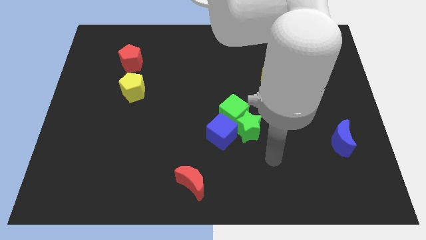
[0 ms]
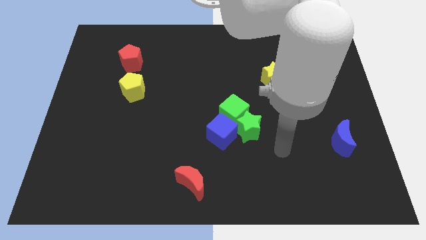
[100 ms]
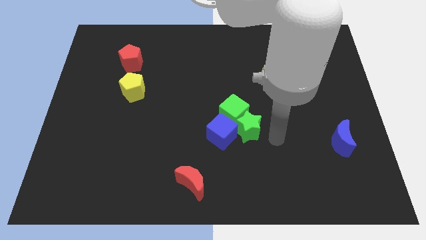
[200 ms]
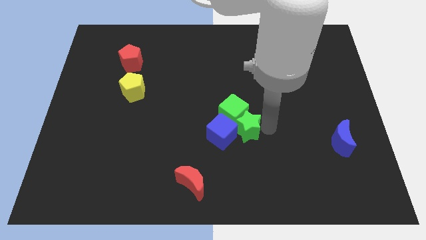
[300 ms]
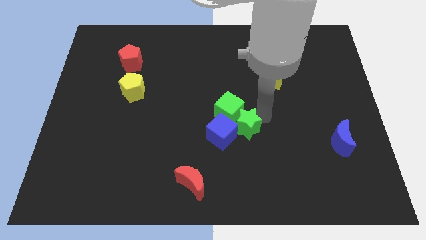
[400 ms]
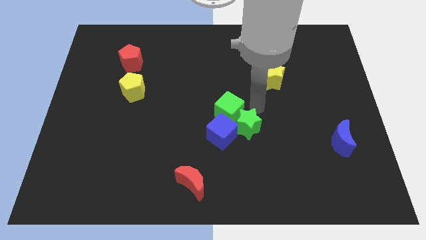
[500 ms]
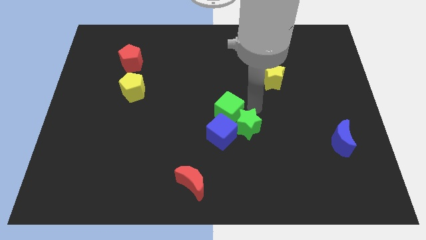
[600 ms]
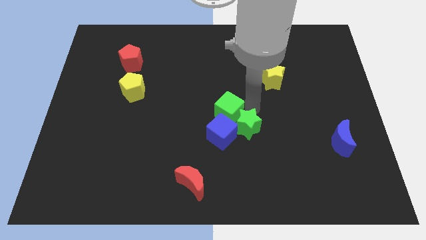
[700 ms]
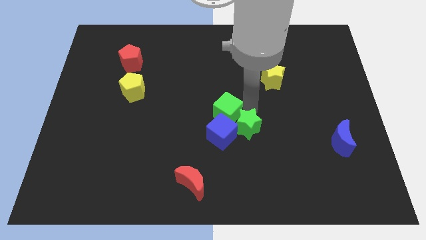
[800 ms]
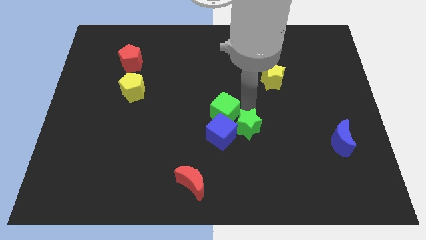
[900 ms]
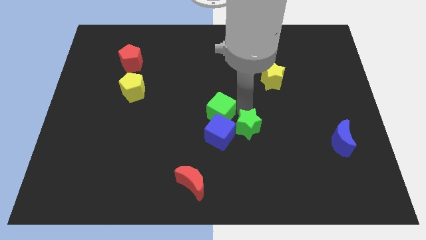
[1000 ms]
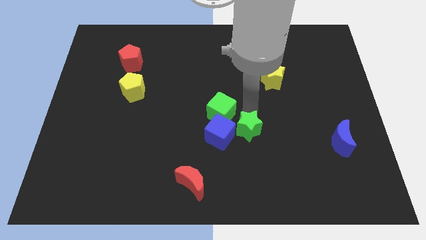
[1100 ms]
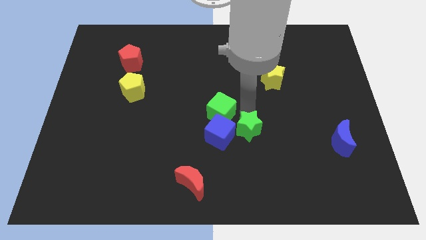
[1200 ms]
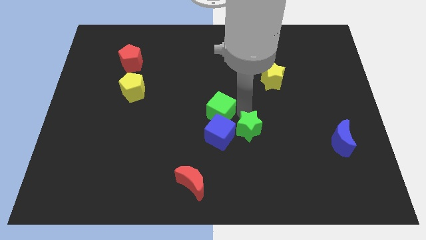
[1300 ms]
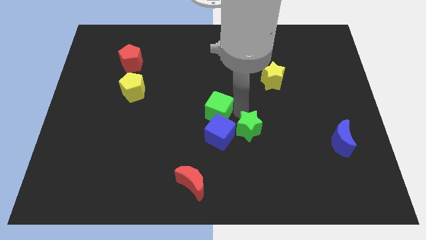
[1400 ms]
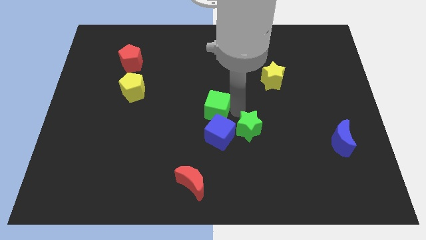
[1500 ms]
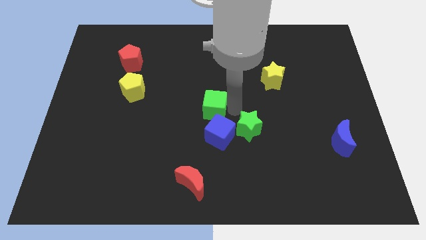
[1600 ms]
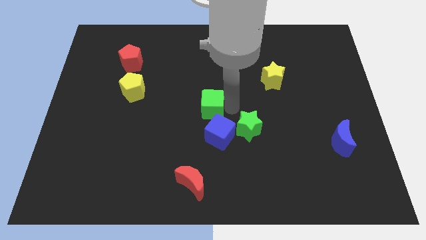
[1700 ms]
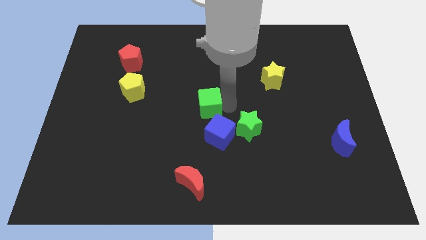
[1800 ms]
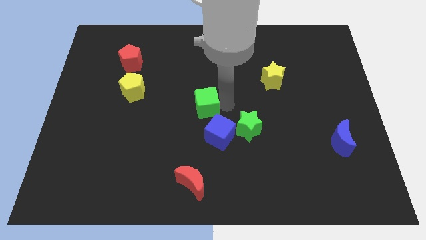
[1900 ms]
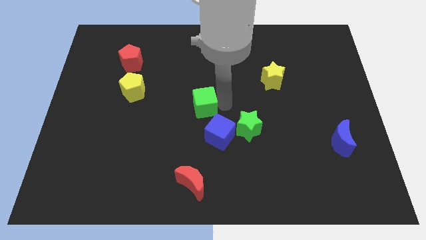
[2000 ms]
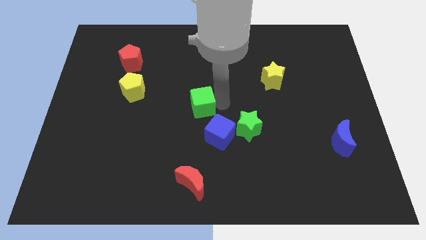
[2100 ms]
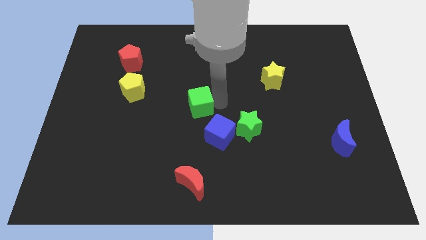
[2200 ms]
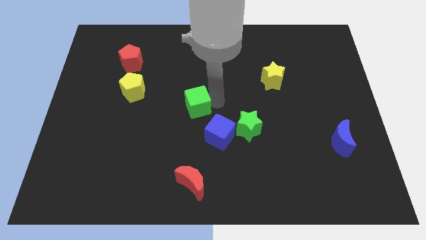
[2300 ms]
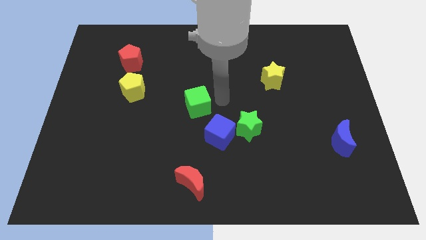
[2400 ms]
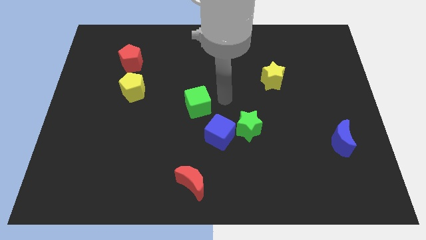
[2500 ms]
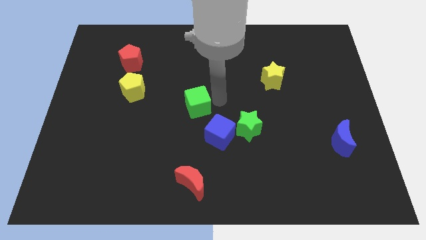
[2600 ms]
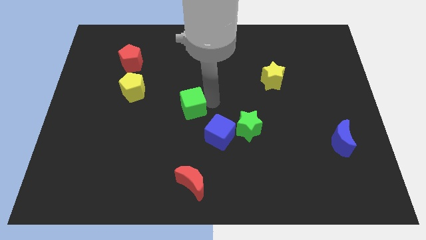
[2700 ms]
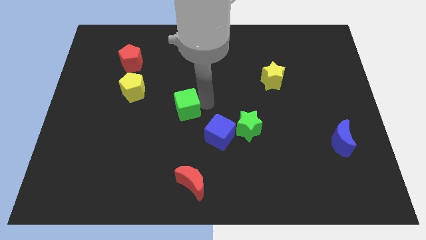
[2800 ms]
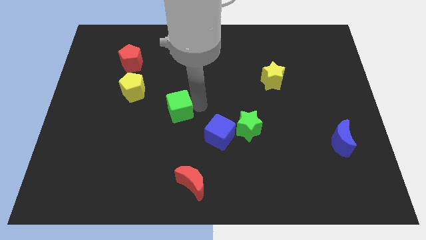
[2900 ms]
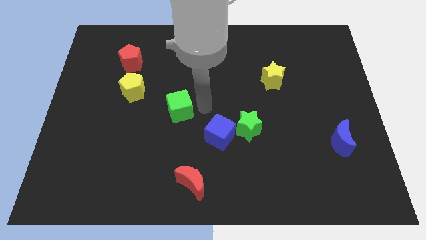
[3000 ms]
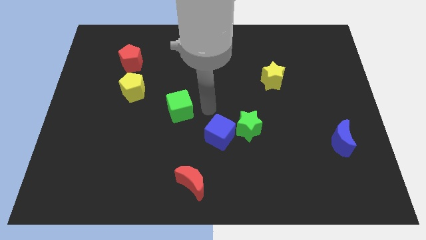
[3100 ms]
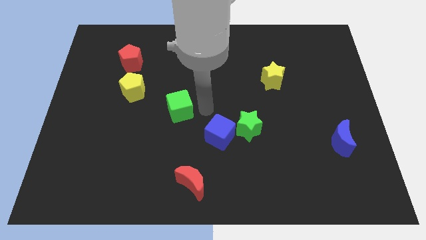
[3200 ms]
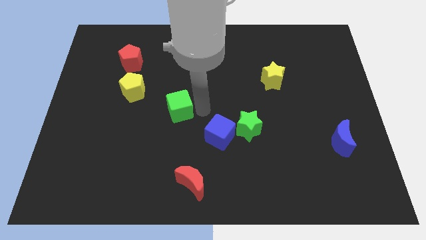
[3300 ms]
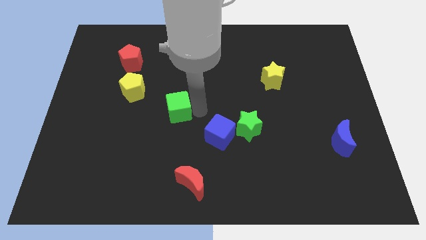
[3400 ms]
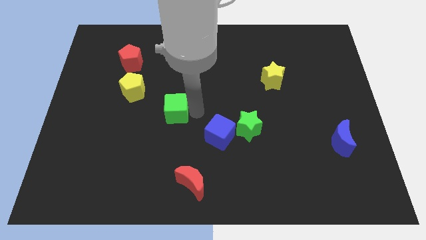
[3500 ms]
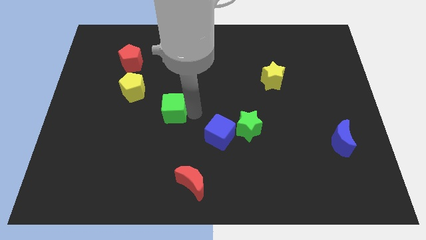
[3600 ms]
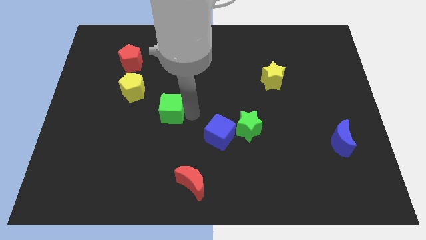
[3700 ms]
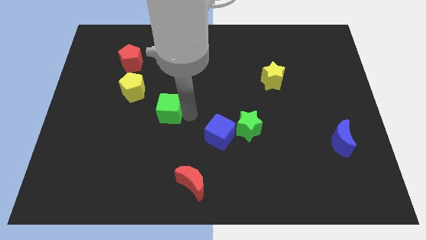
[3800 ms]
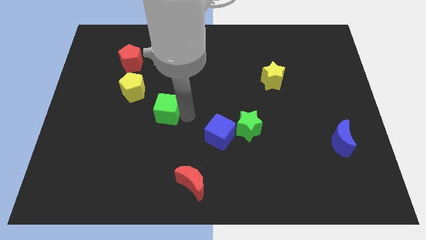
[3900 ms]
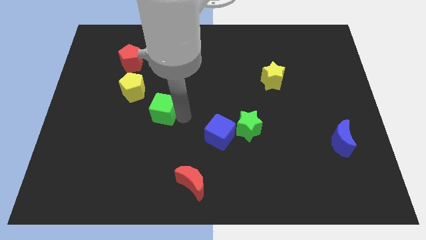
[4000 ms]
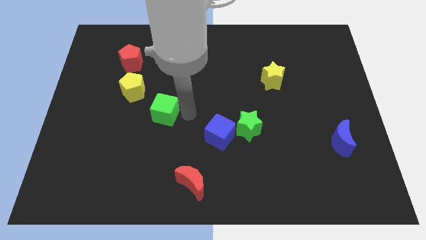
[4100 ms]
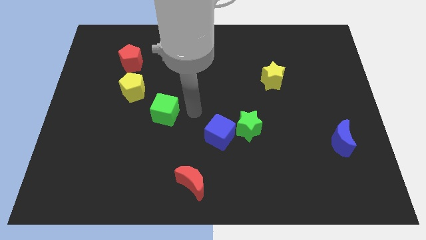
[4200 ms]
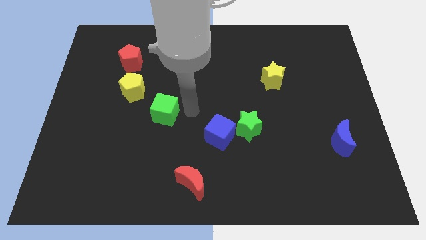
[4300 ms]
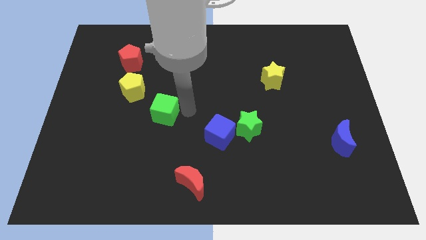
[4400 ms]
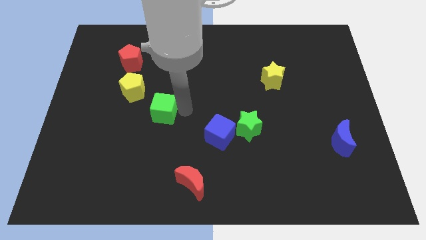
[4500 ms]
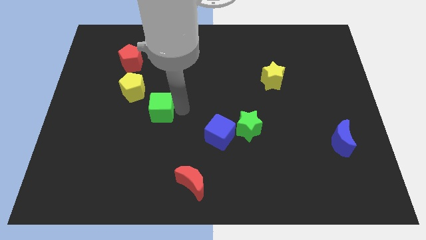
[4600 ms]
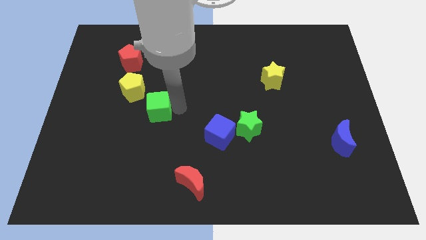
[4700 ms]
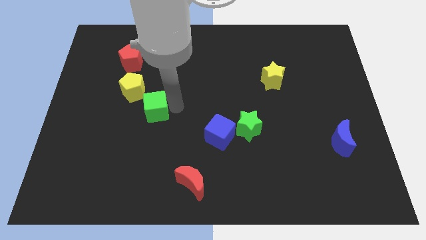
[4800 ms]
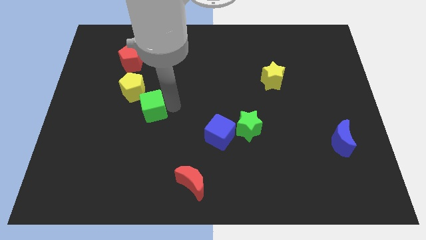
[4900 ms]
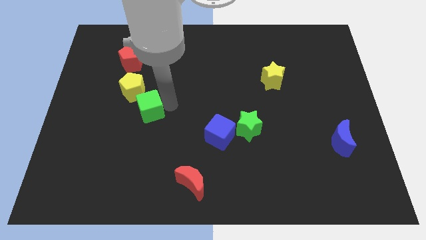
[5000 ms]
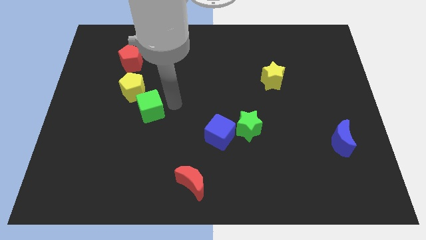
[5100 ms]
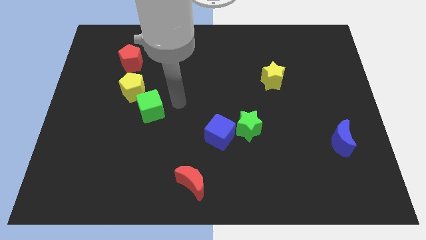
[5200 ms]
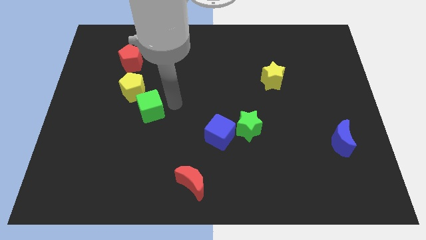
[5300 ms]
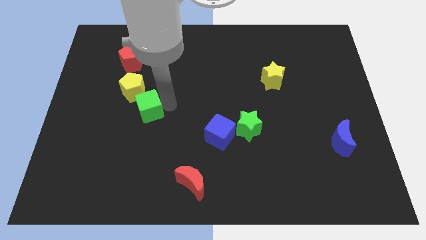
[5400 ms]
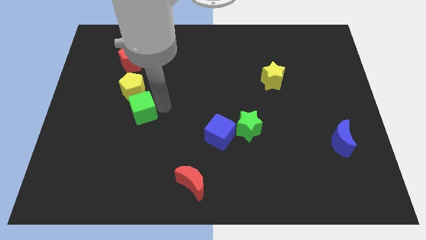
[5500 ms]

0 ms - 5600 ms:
move the green cube left

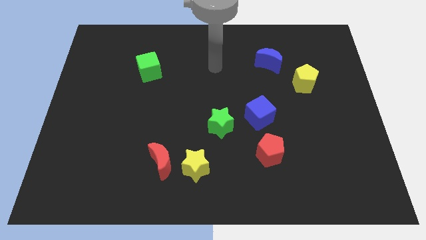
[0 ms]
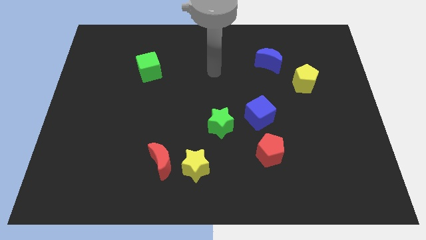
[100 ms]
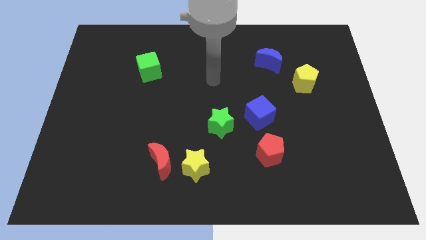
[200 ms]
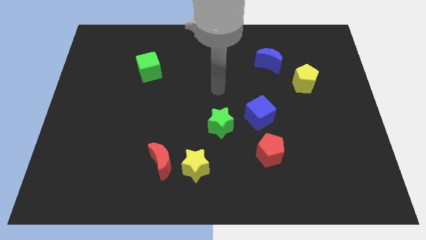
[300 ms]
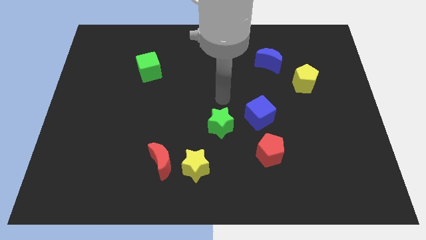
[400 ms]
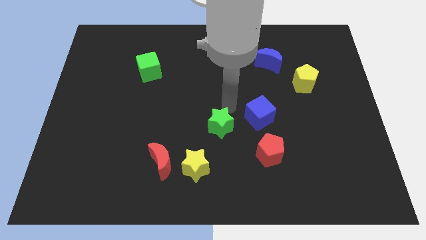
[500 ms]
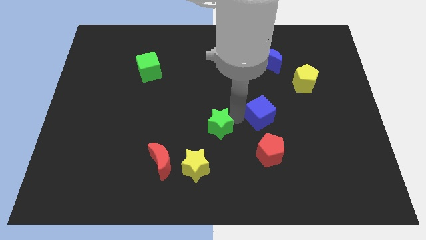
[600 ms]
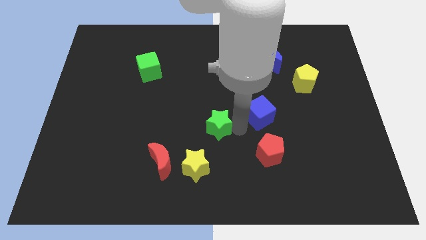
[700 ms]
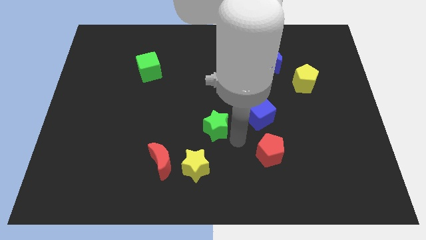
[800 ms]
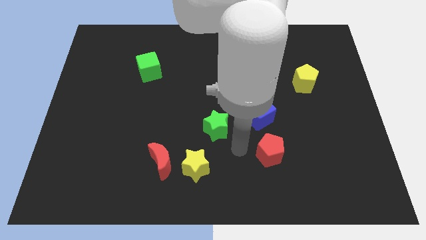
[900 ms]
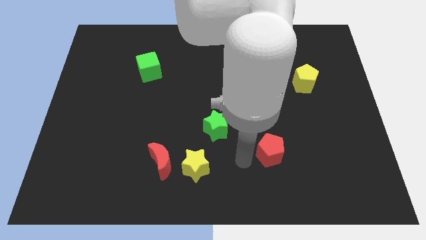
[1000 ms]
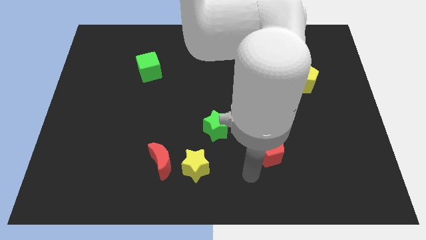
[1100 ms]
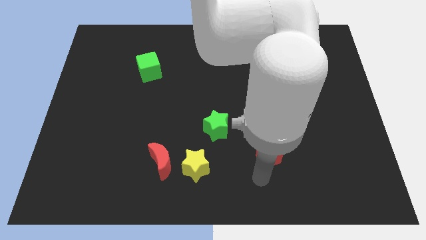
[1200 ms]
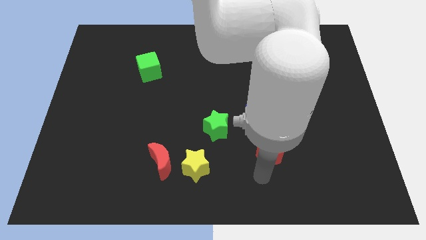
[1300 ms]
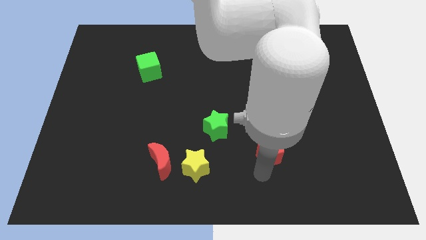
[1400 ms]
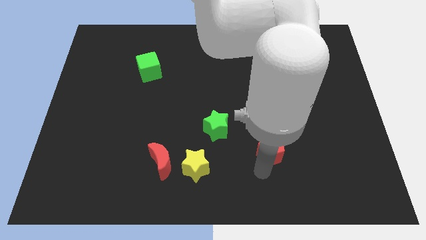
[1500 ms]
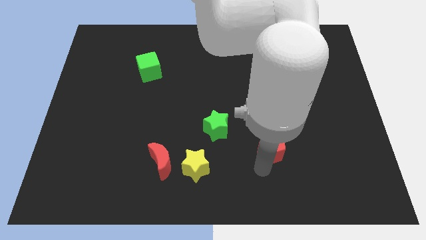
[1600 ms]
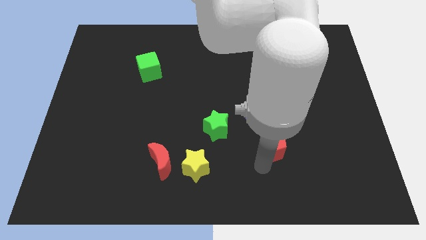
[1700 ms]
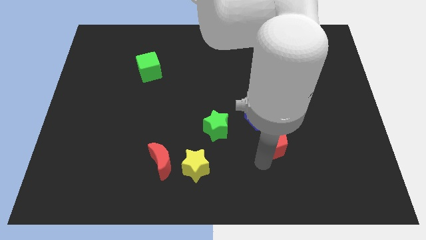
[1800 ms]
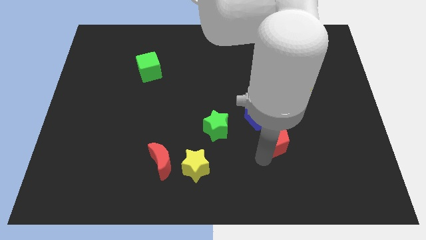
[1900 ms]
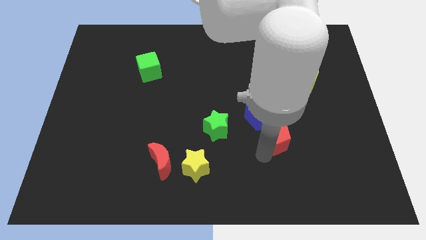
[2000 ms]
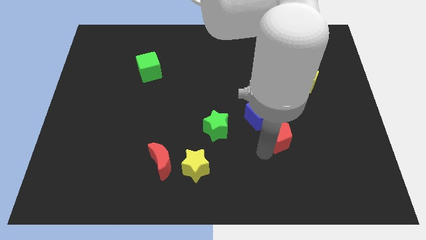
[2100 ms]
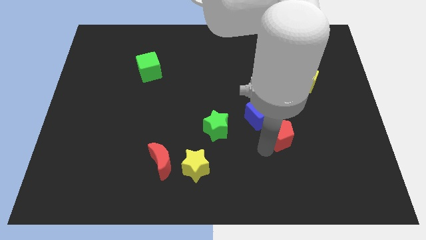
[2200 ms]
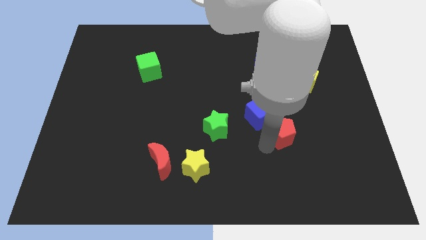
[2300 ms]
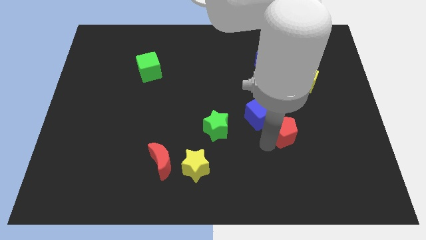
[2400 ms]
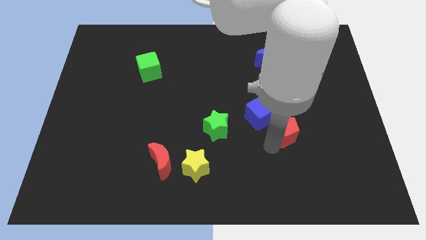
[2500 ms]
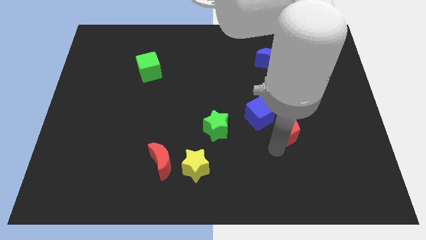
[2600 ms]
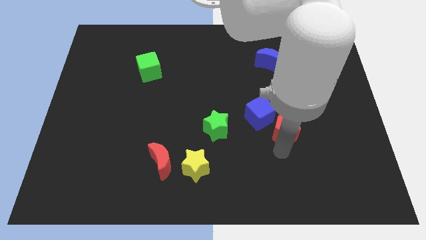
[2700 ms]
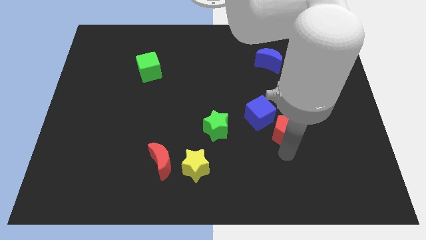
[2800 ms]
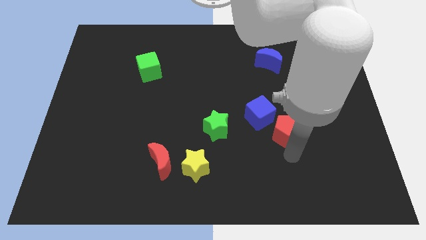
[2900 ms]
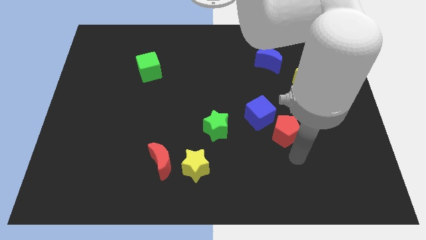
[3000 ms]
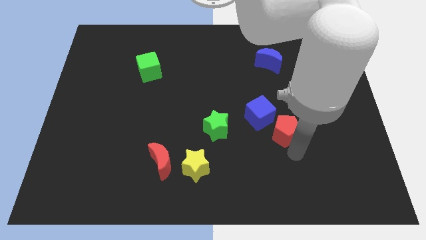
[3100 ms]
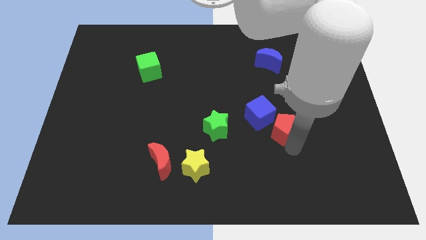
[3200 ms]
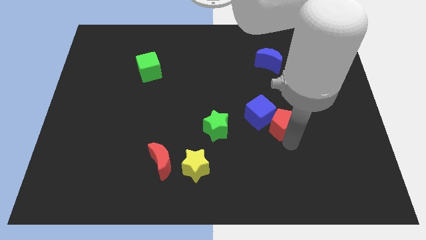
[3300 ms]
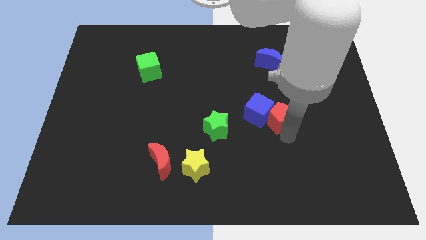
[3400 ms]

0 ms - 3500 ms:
move the red pentagon somewhat up
